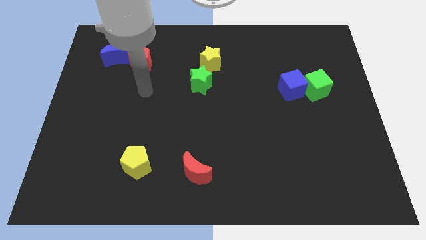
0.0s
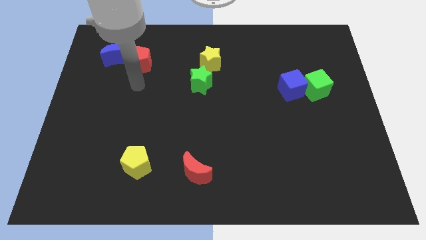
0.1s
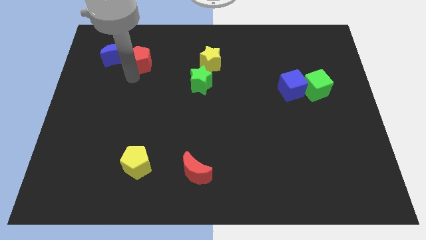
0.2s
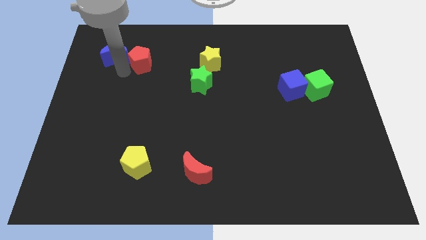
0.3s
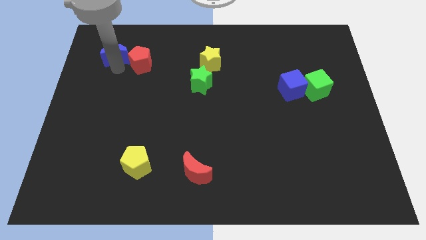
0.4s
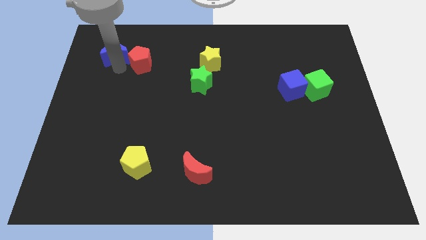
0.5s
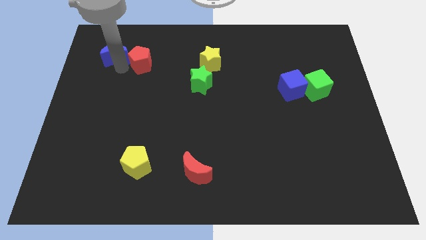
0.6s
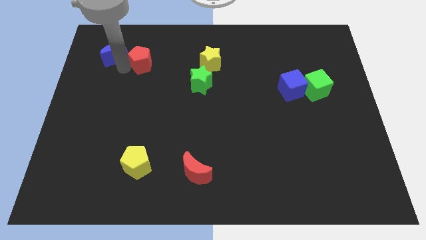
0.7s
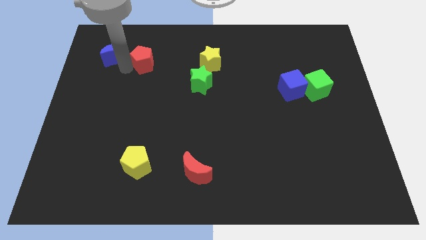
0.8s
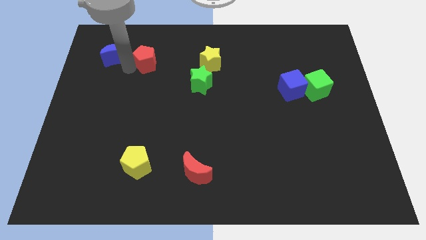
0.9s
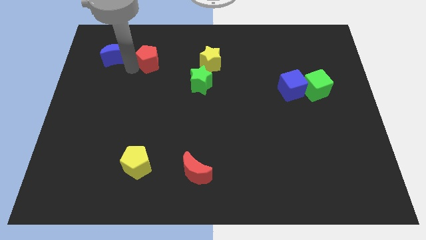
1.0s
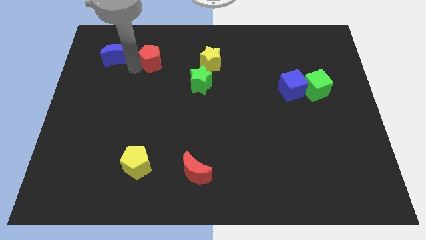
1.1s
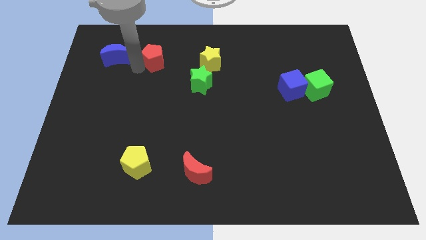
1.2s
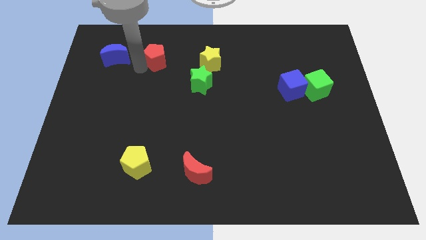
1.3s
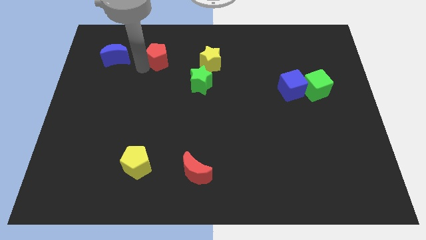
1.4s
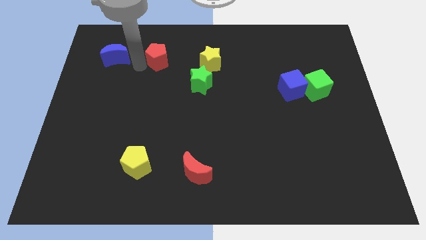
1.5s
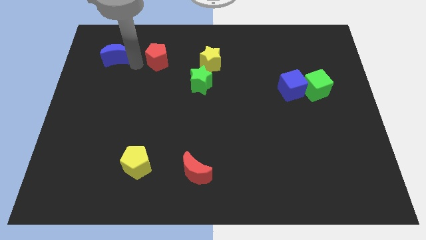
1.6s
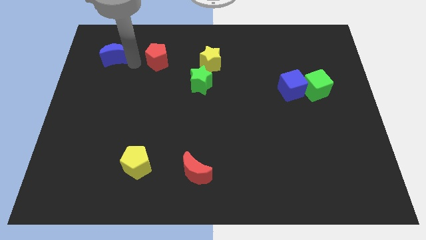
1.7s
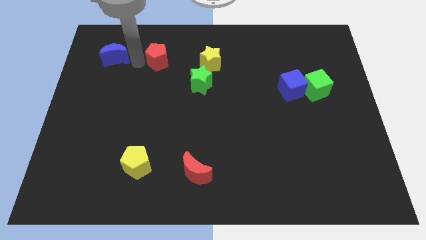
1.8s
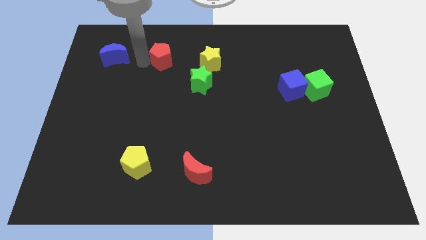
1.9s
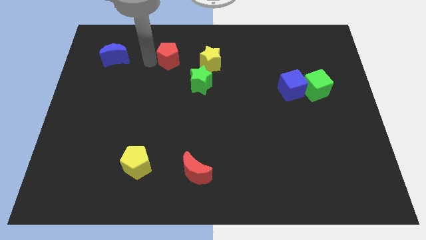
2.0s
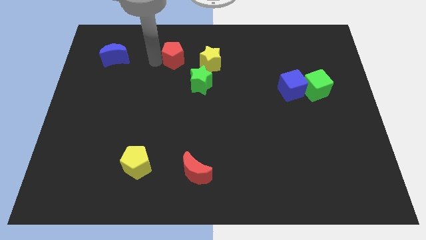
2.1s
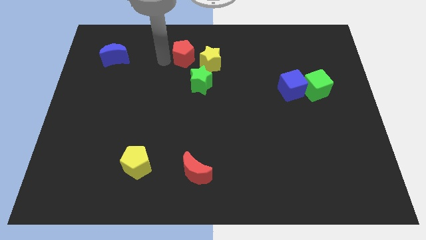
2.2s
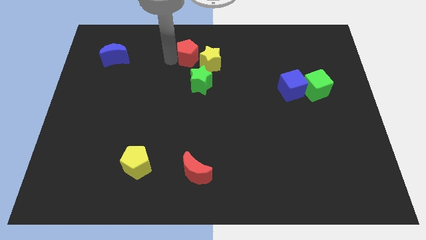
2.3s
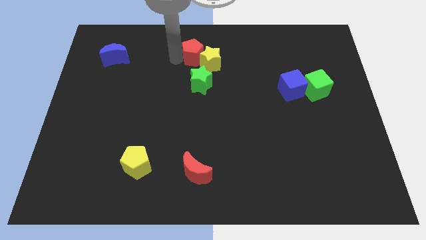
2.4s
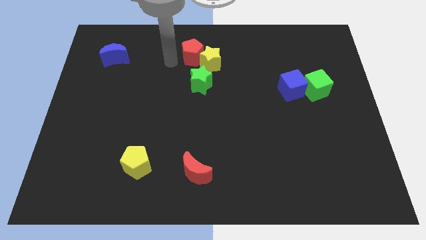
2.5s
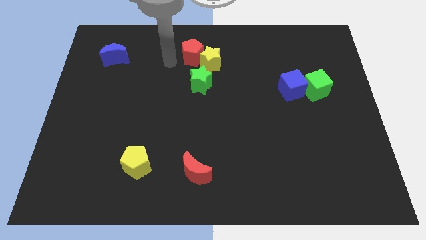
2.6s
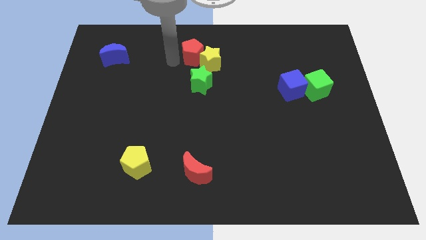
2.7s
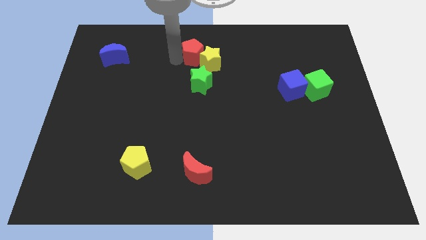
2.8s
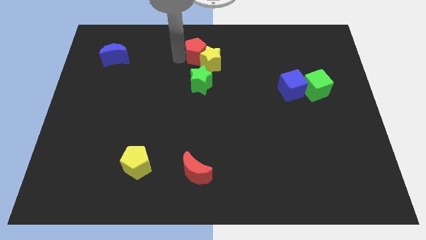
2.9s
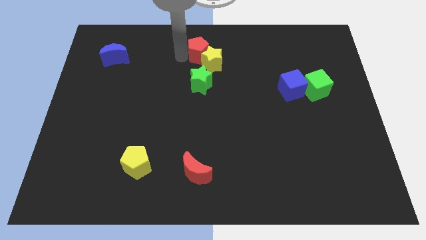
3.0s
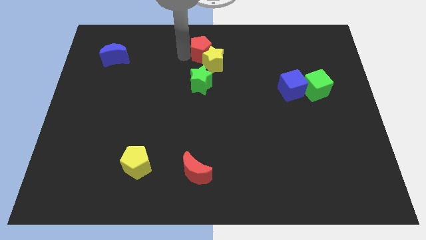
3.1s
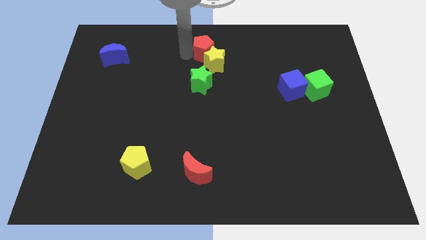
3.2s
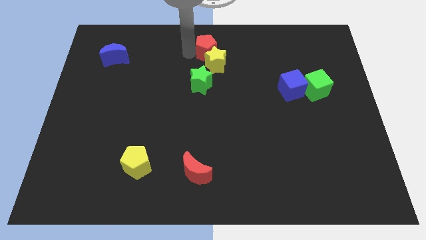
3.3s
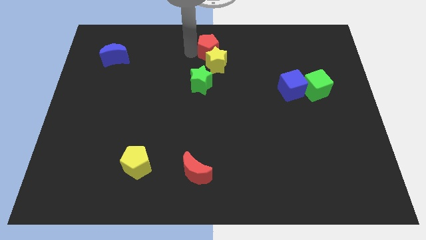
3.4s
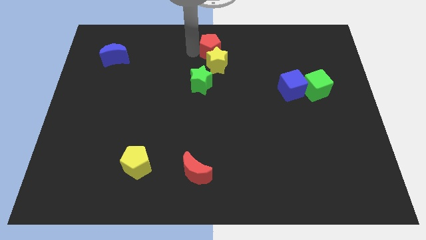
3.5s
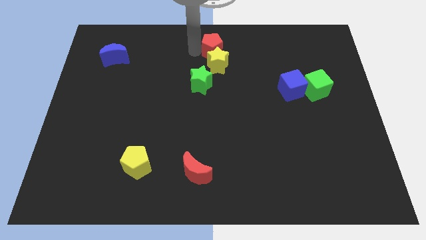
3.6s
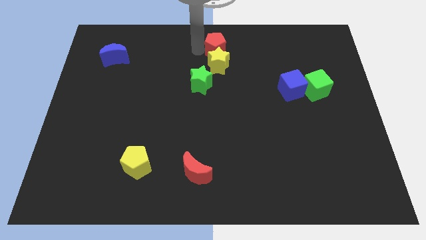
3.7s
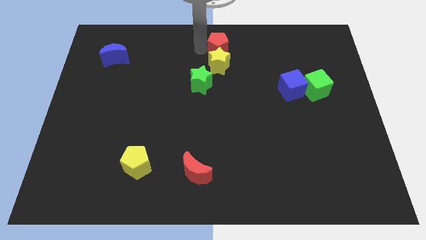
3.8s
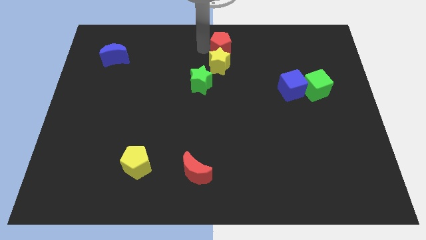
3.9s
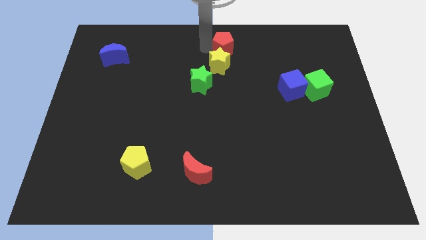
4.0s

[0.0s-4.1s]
slide the red pentagon right

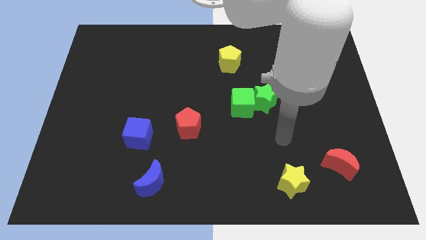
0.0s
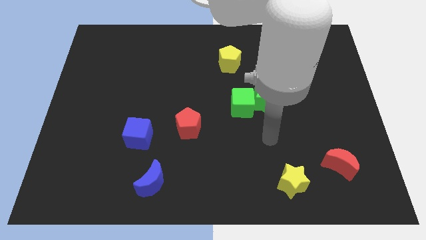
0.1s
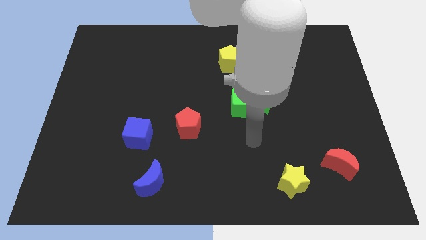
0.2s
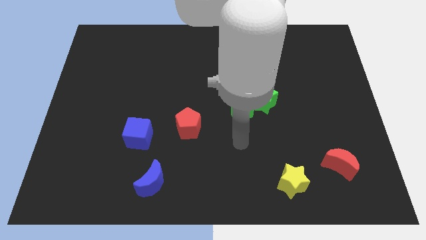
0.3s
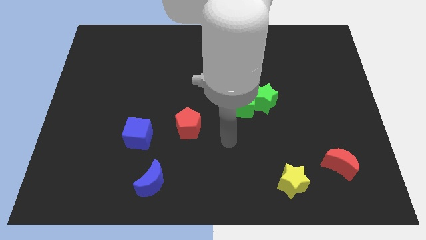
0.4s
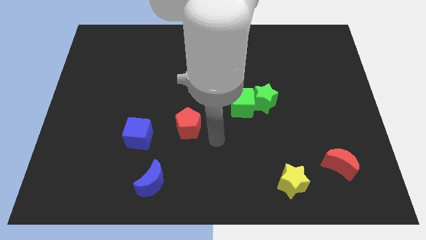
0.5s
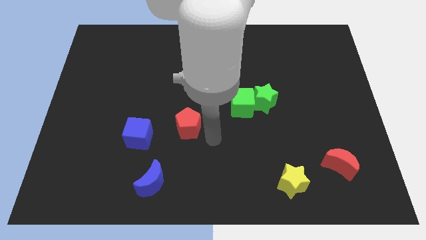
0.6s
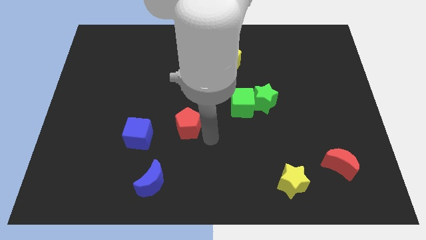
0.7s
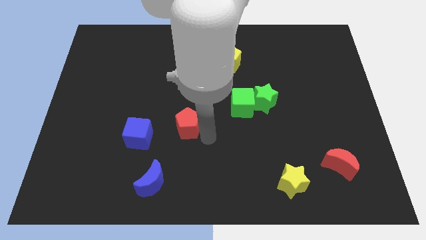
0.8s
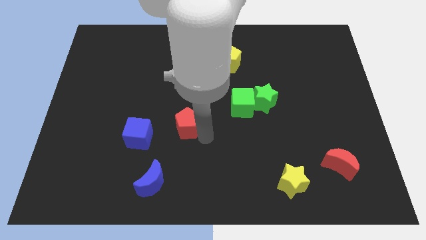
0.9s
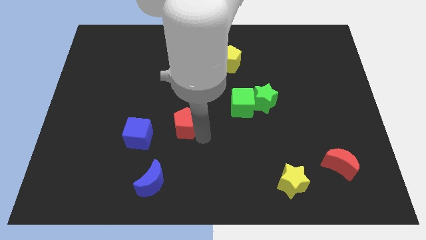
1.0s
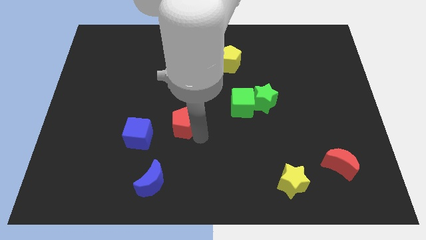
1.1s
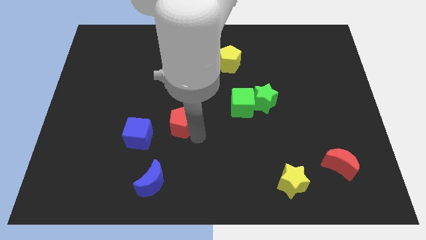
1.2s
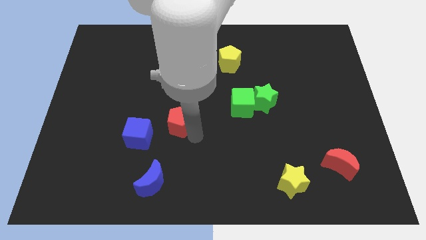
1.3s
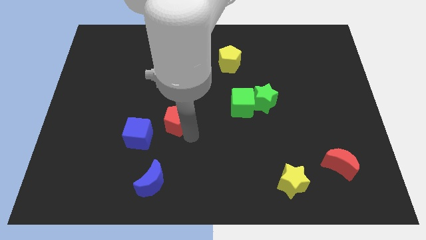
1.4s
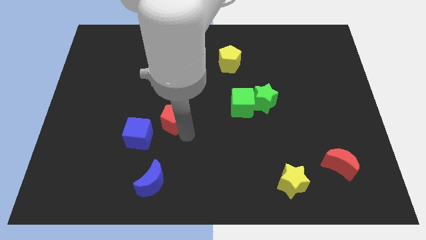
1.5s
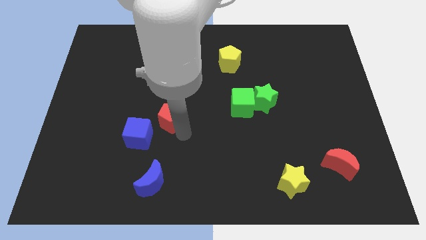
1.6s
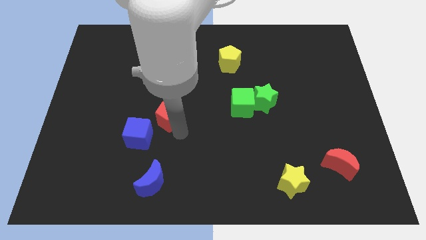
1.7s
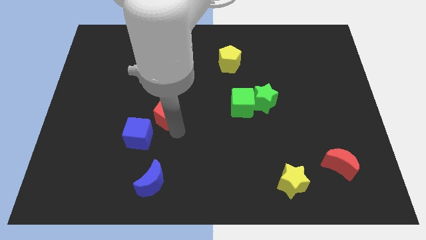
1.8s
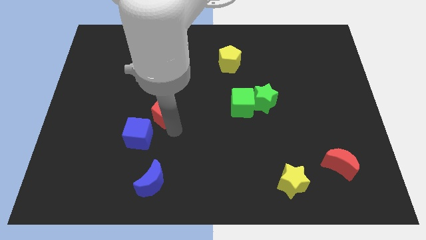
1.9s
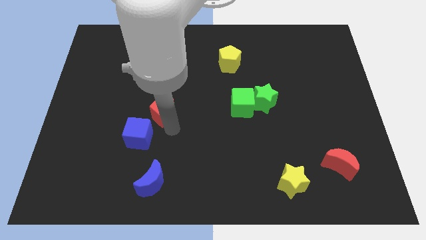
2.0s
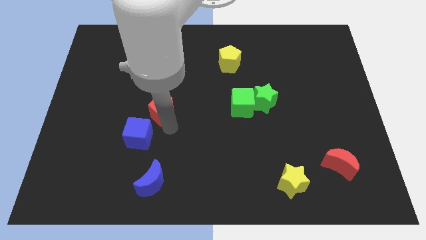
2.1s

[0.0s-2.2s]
slide the red pentagon a little upwards and then to the left

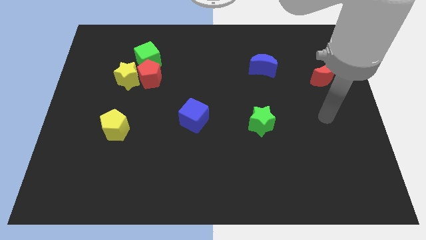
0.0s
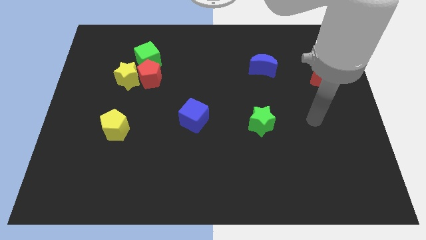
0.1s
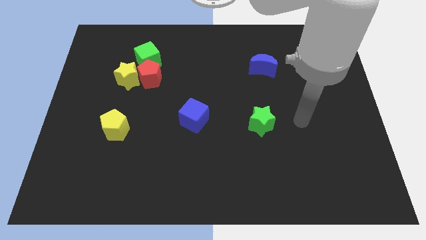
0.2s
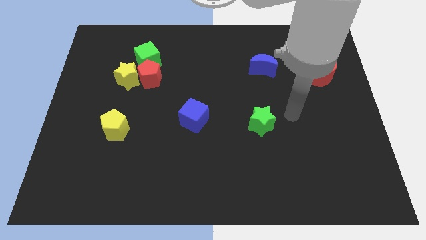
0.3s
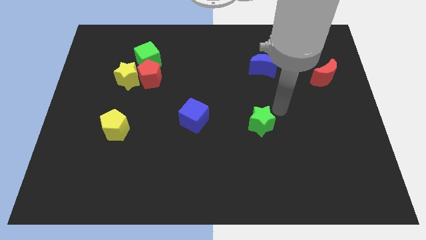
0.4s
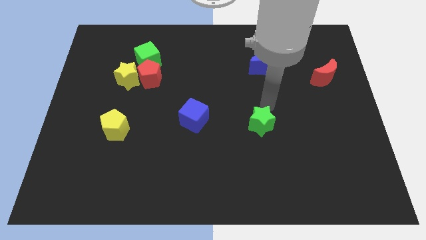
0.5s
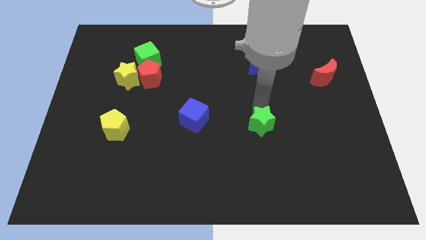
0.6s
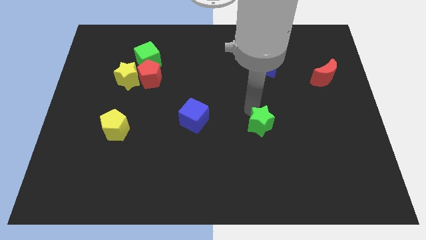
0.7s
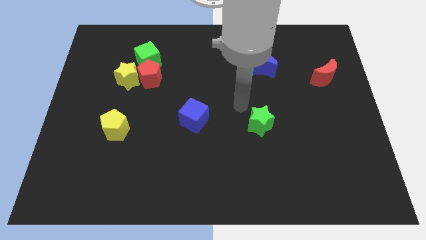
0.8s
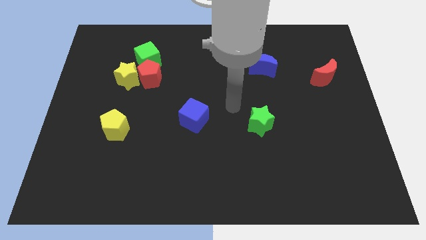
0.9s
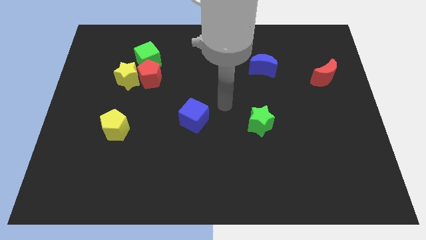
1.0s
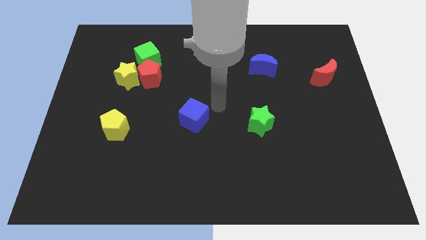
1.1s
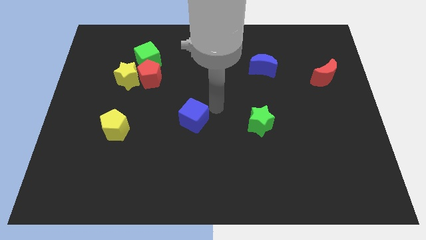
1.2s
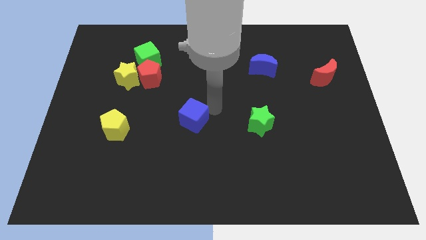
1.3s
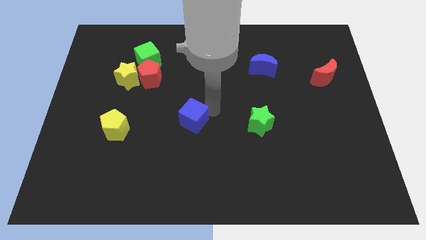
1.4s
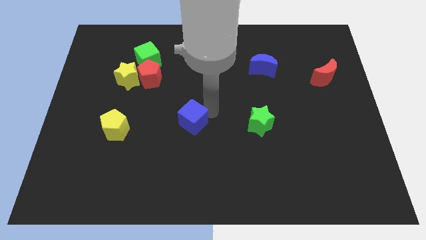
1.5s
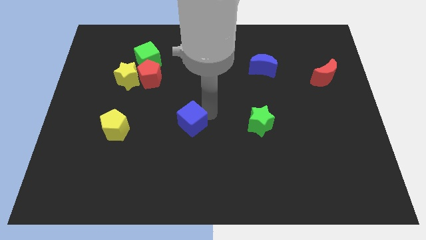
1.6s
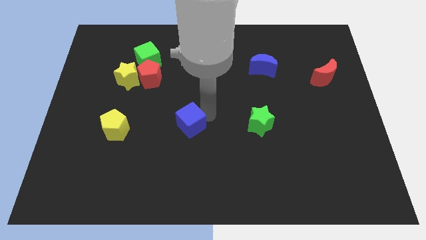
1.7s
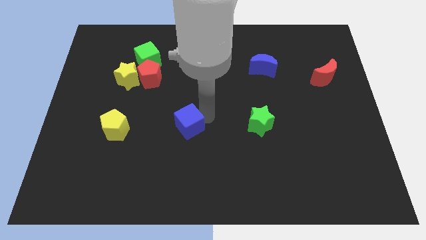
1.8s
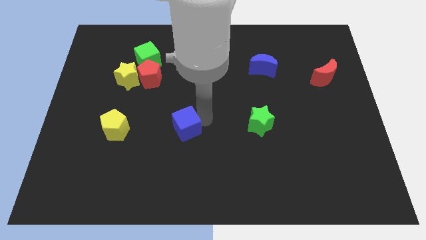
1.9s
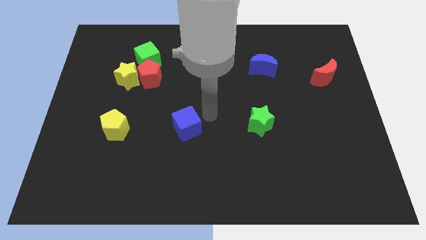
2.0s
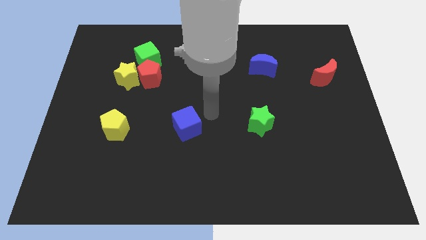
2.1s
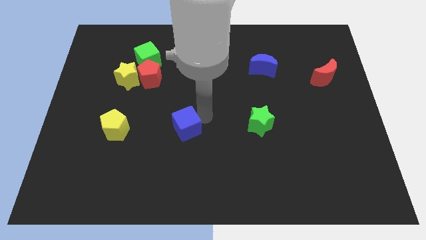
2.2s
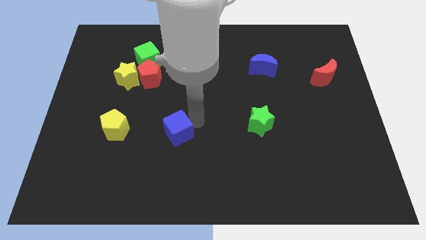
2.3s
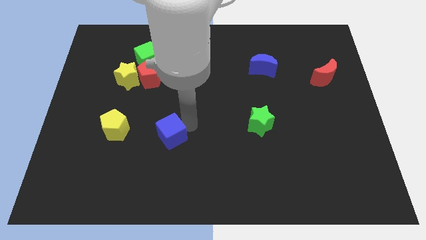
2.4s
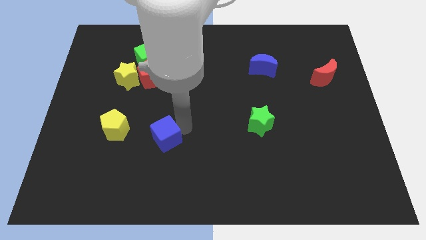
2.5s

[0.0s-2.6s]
slightly move the blue cube diagonally downwards and to the left
